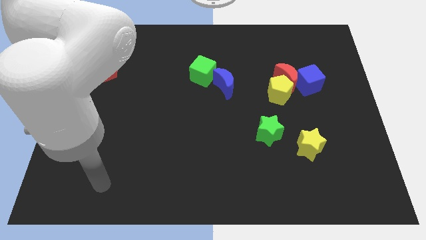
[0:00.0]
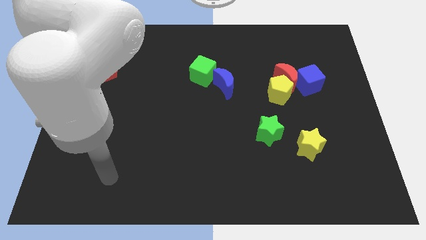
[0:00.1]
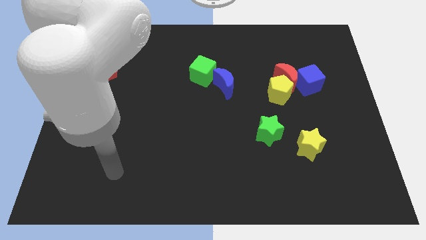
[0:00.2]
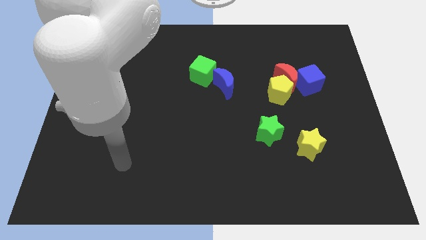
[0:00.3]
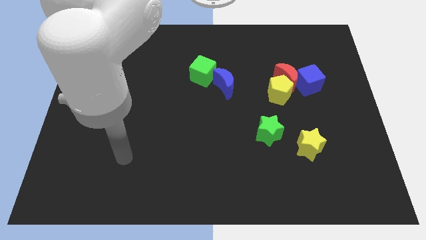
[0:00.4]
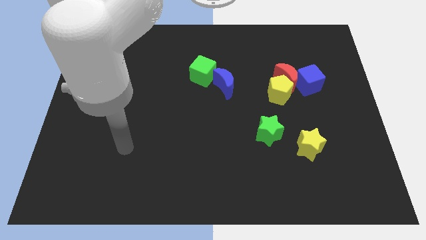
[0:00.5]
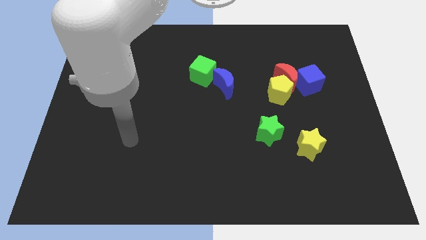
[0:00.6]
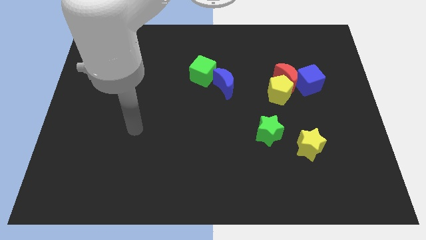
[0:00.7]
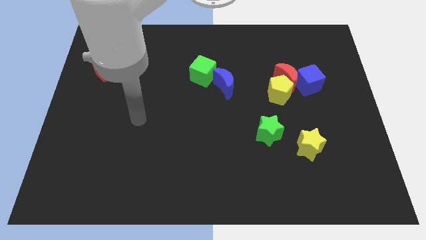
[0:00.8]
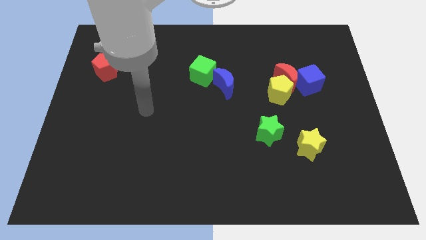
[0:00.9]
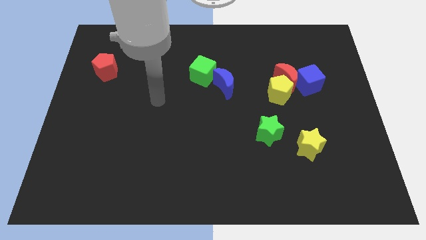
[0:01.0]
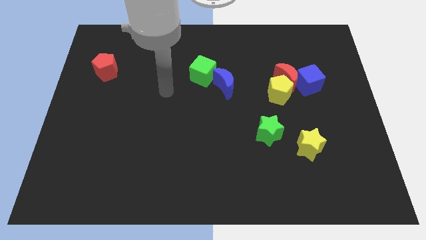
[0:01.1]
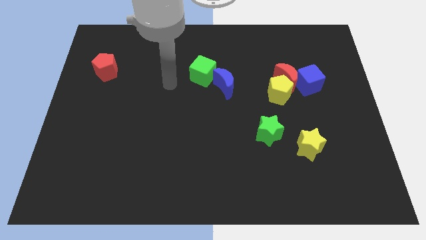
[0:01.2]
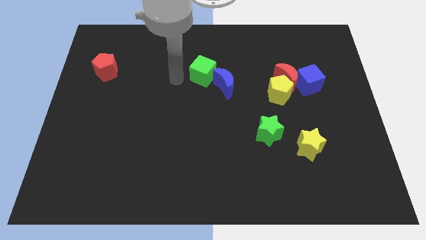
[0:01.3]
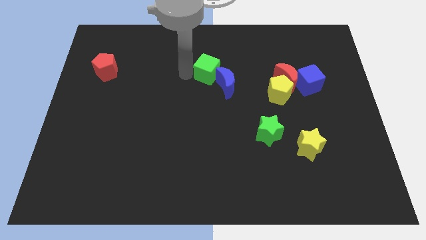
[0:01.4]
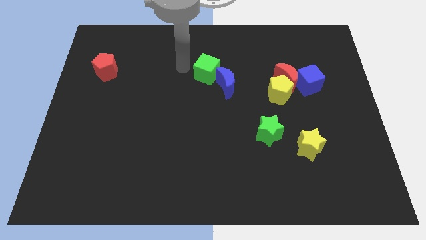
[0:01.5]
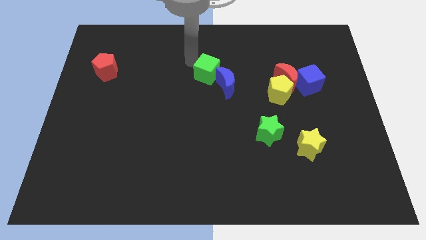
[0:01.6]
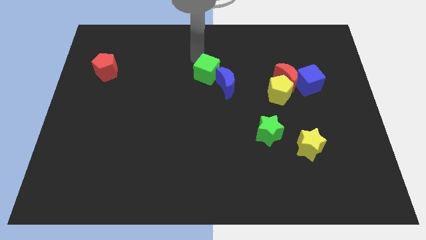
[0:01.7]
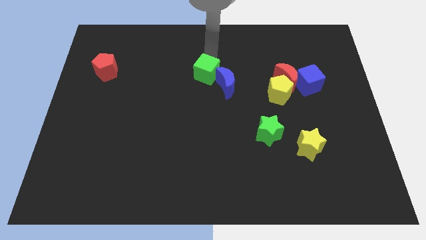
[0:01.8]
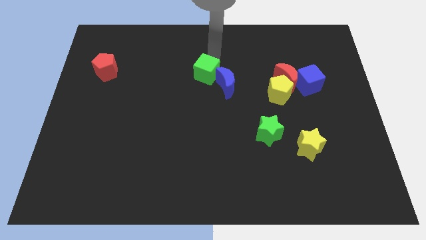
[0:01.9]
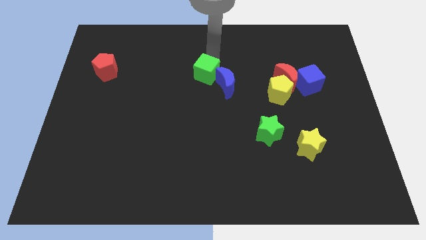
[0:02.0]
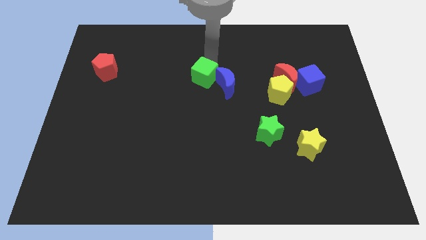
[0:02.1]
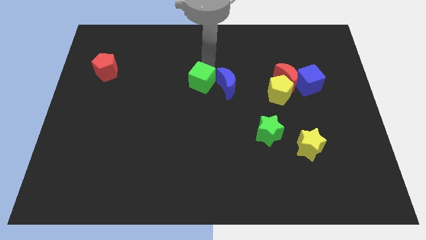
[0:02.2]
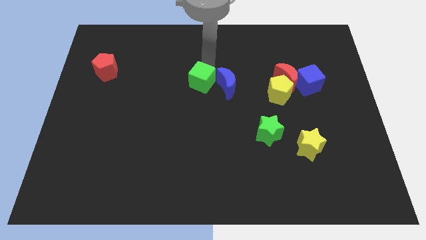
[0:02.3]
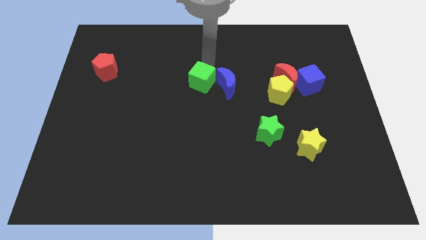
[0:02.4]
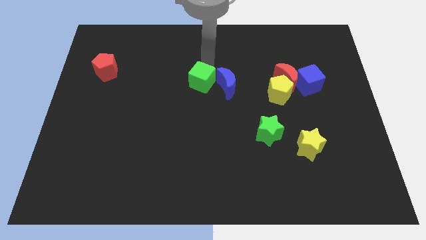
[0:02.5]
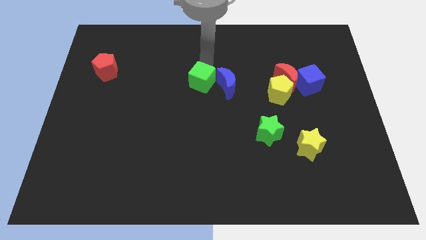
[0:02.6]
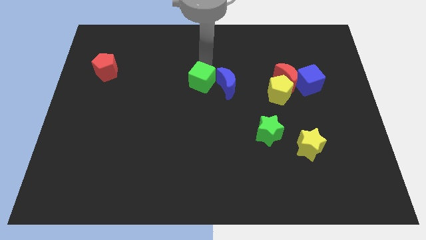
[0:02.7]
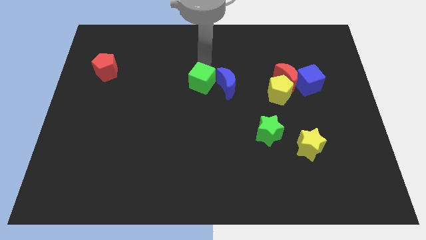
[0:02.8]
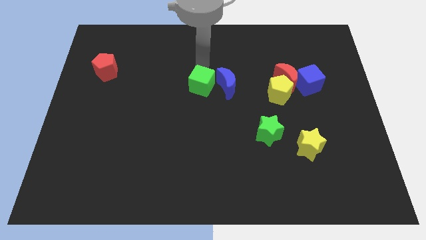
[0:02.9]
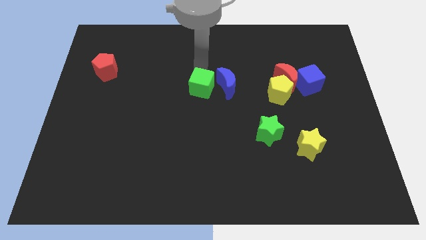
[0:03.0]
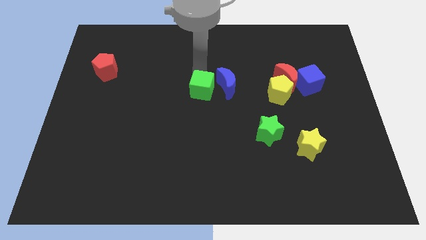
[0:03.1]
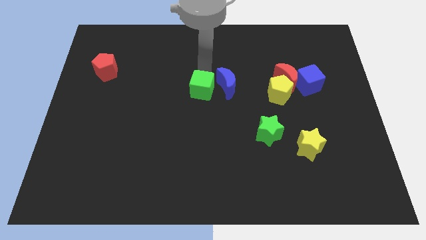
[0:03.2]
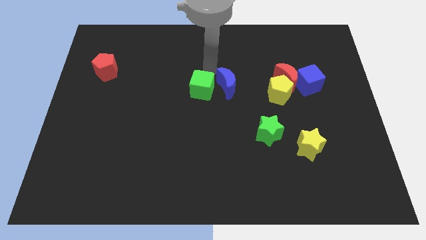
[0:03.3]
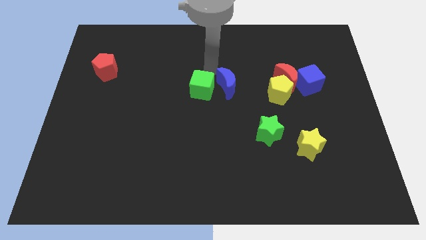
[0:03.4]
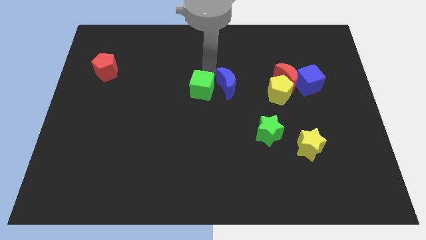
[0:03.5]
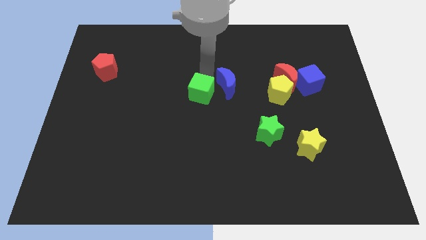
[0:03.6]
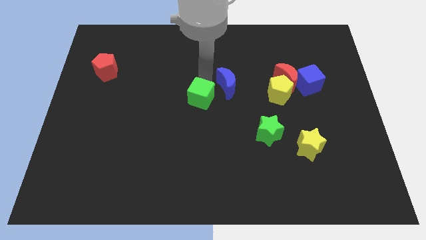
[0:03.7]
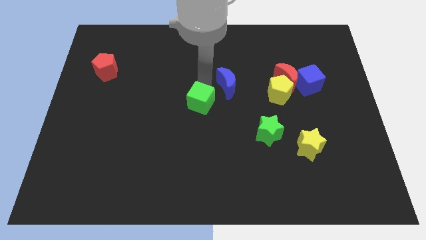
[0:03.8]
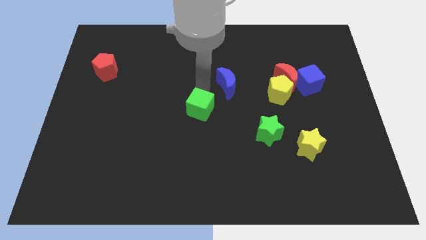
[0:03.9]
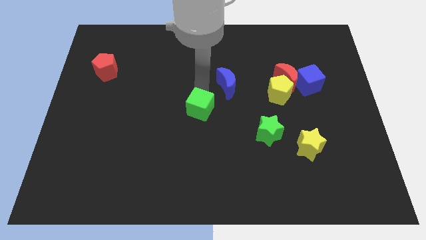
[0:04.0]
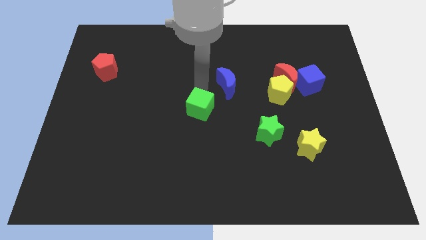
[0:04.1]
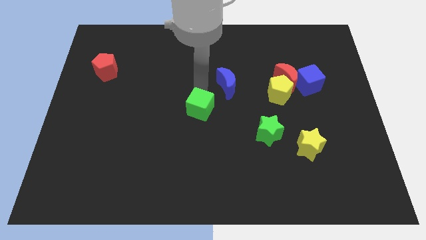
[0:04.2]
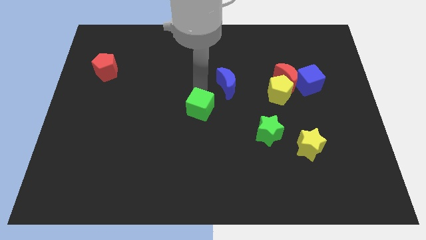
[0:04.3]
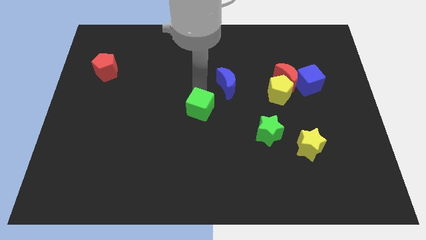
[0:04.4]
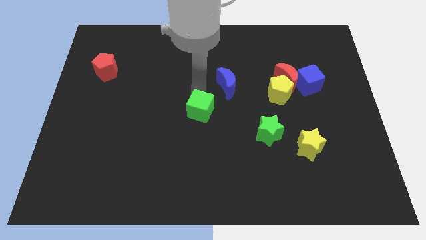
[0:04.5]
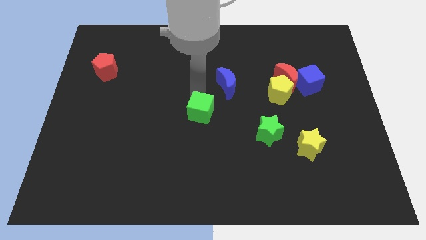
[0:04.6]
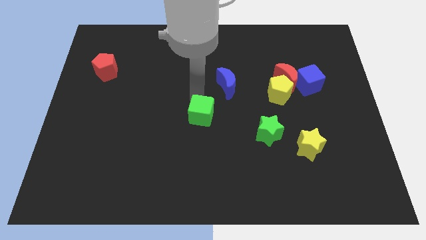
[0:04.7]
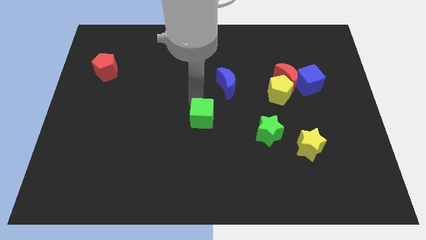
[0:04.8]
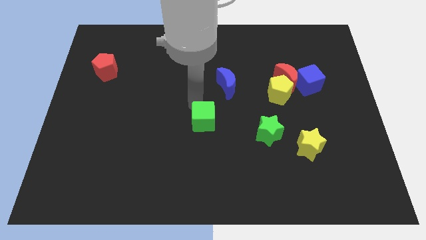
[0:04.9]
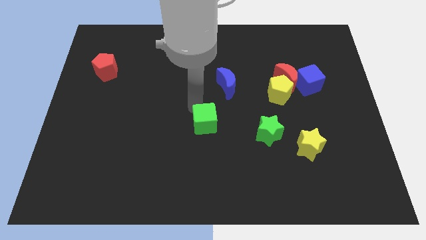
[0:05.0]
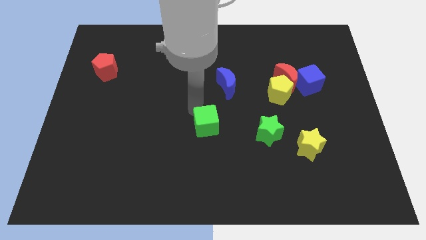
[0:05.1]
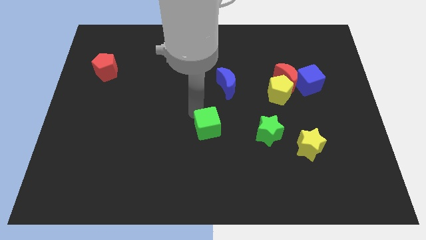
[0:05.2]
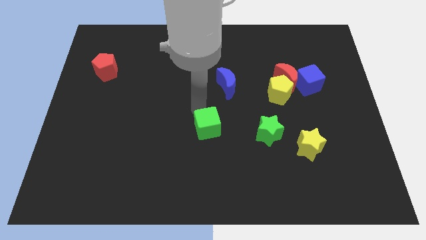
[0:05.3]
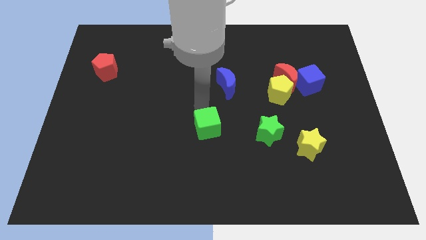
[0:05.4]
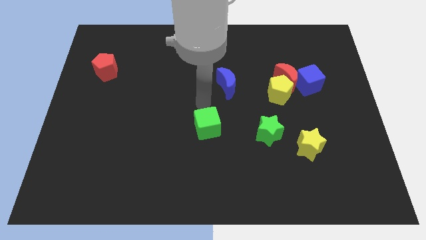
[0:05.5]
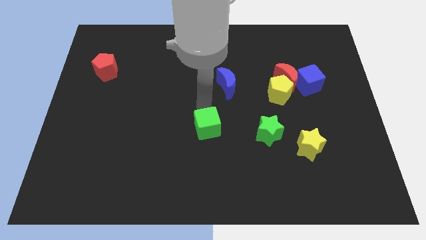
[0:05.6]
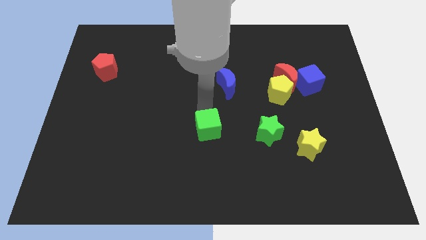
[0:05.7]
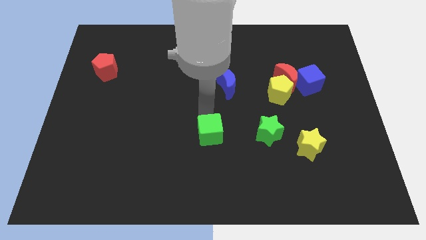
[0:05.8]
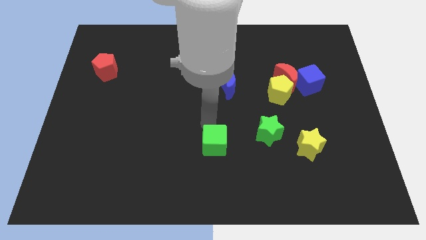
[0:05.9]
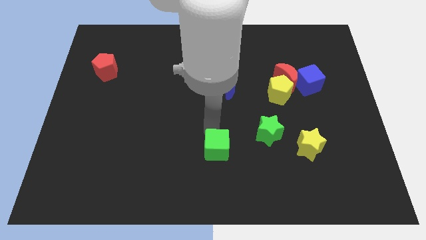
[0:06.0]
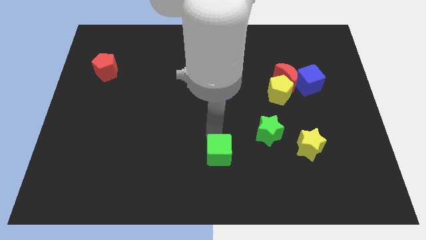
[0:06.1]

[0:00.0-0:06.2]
put the green cube to the bottom
